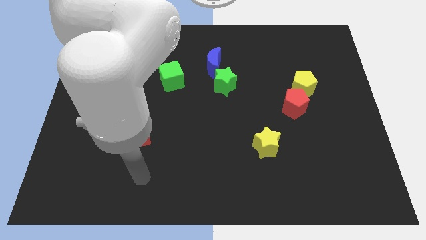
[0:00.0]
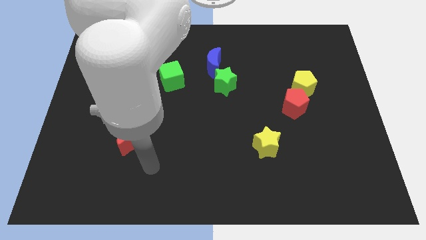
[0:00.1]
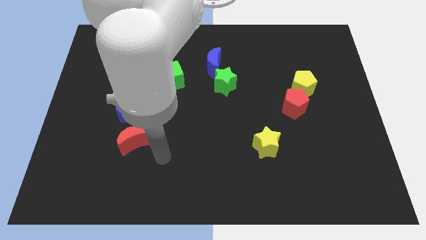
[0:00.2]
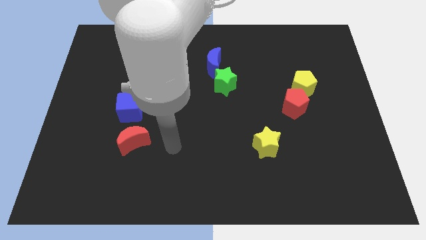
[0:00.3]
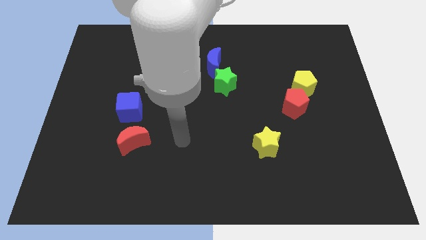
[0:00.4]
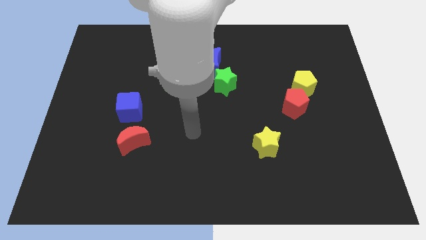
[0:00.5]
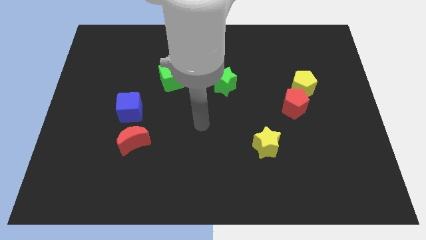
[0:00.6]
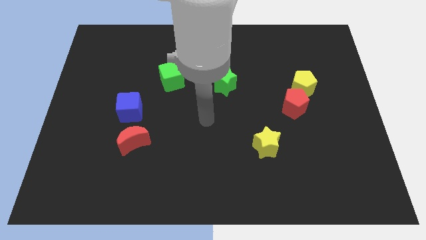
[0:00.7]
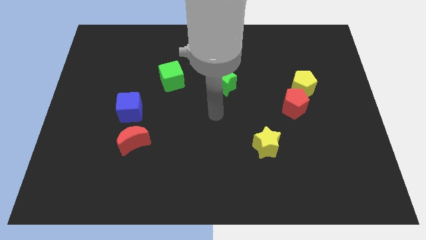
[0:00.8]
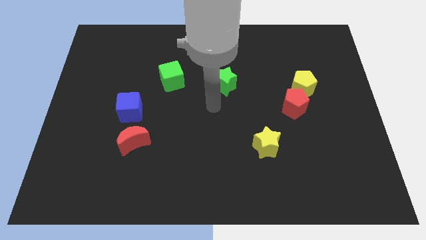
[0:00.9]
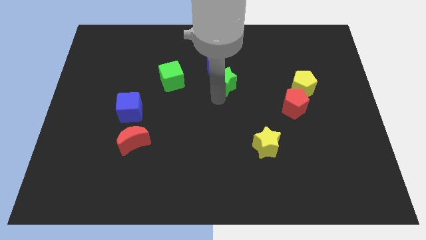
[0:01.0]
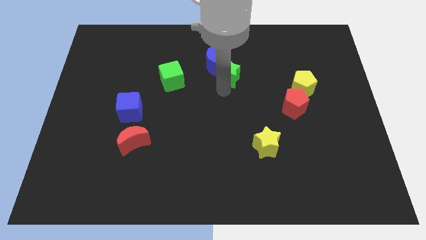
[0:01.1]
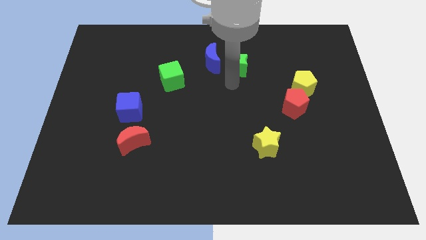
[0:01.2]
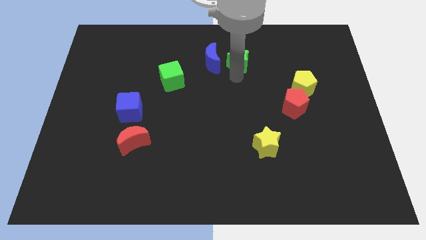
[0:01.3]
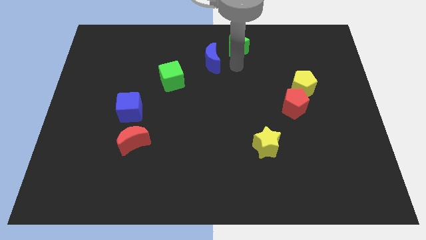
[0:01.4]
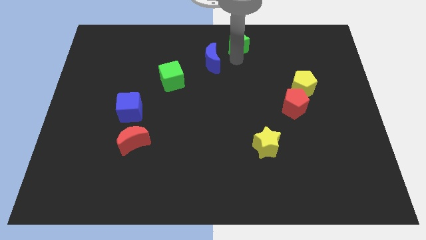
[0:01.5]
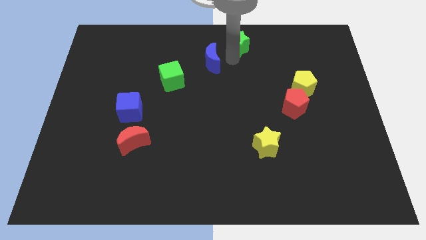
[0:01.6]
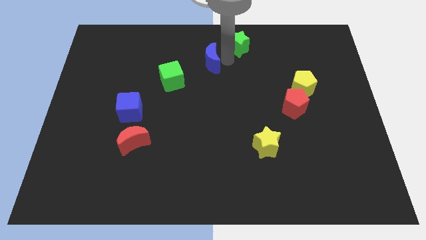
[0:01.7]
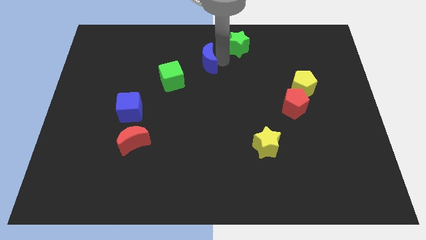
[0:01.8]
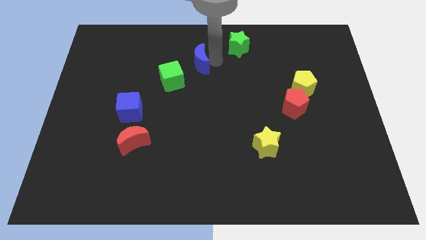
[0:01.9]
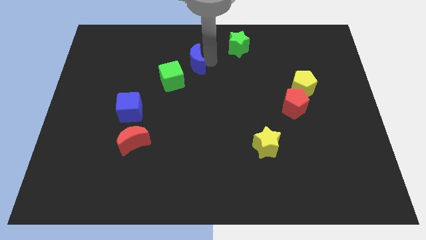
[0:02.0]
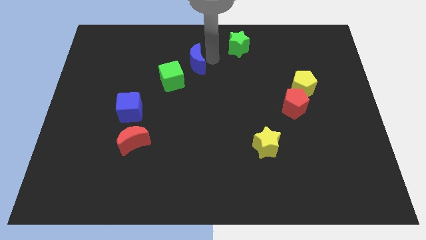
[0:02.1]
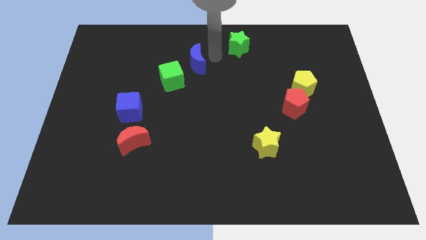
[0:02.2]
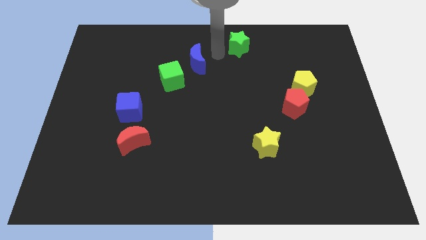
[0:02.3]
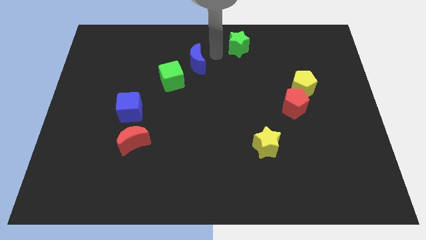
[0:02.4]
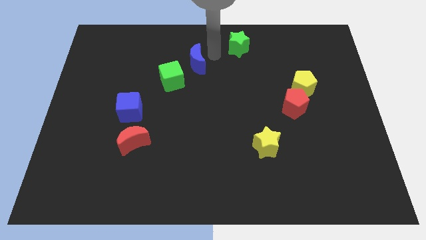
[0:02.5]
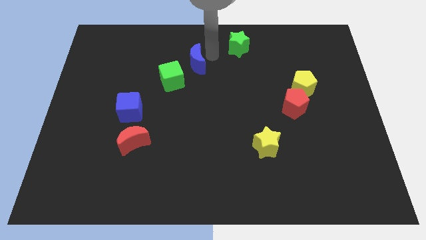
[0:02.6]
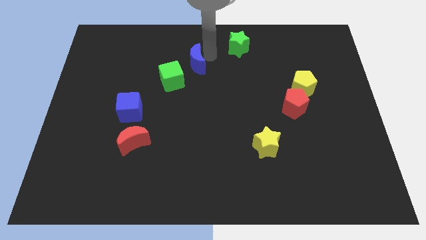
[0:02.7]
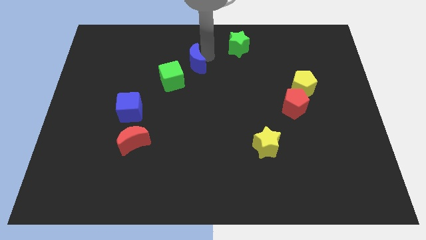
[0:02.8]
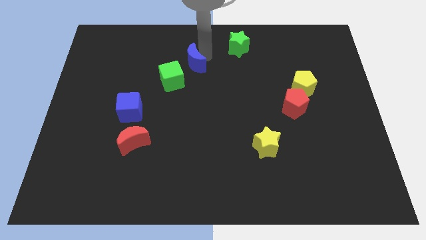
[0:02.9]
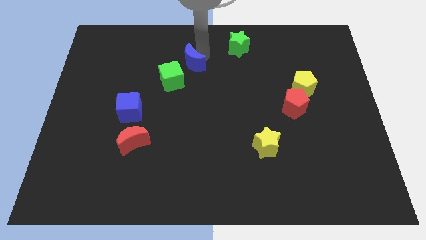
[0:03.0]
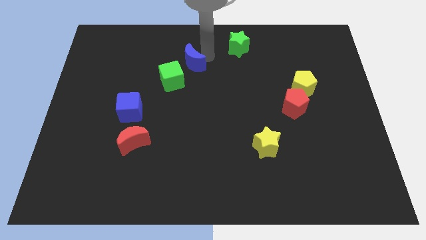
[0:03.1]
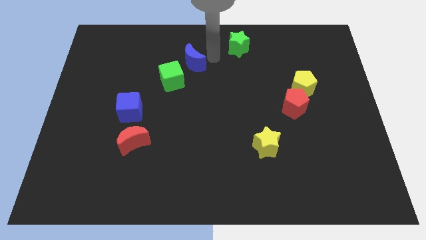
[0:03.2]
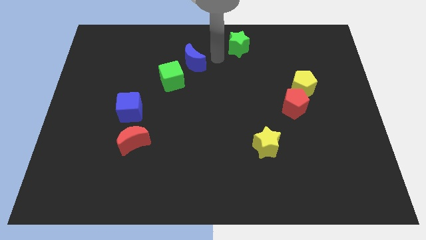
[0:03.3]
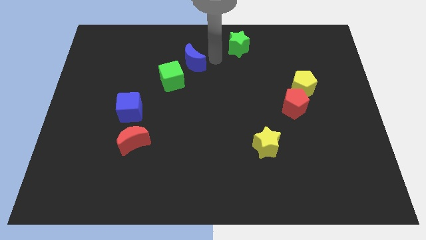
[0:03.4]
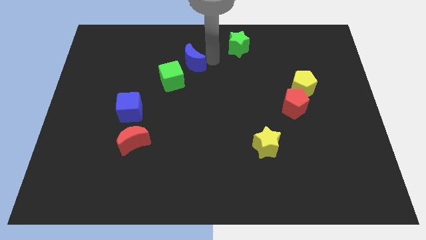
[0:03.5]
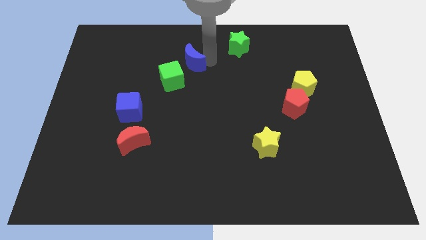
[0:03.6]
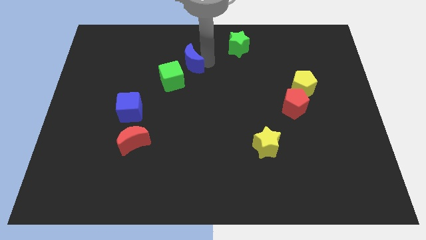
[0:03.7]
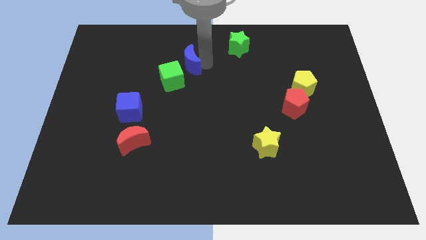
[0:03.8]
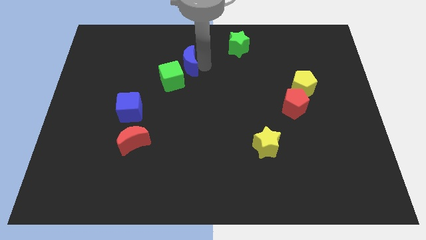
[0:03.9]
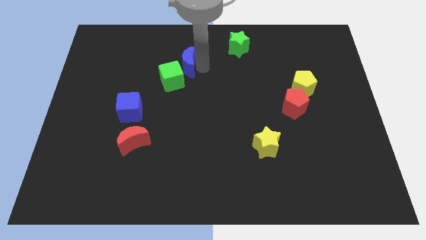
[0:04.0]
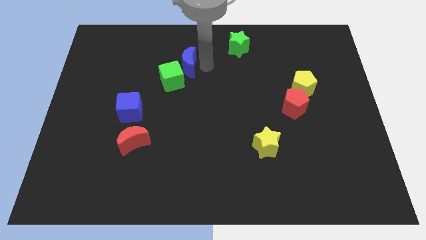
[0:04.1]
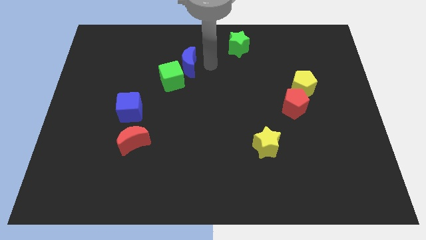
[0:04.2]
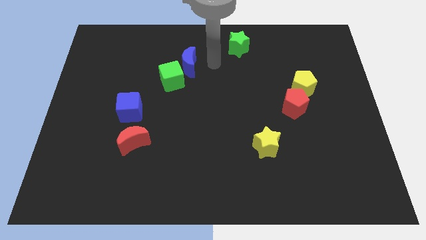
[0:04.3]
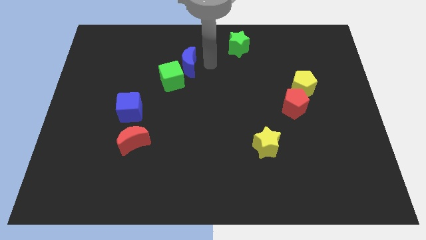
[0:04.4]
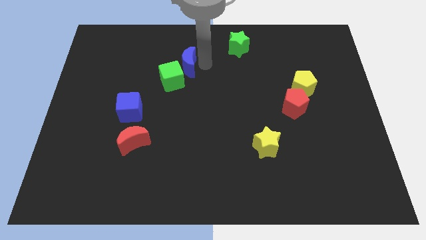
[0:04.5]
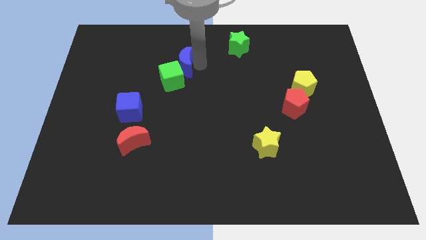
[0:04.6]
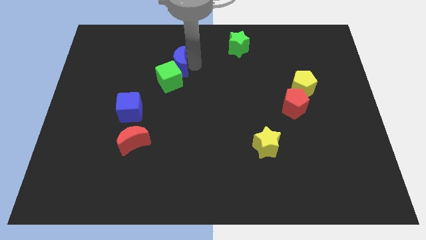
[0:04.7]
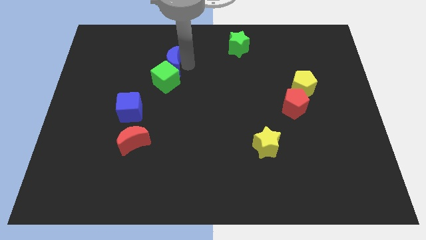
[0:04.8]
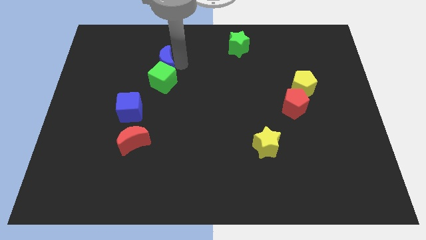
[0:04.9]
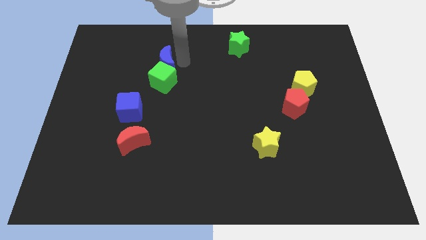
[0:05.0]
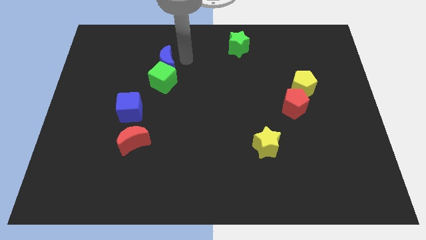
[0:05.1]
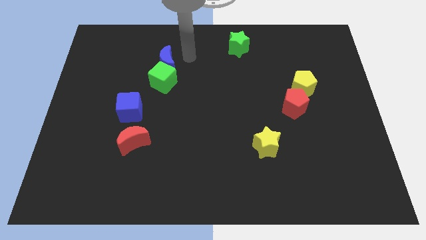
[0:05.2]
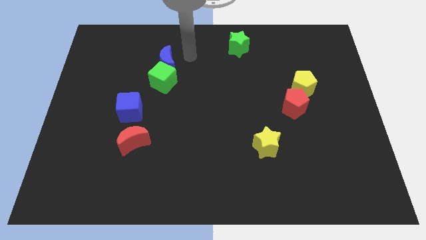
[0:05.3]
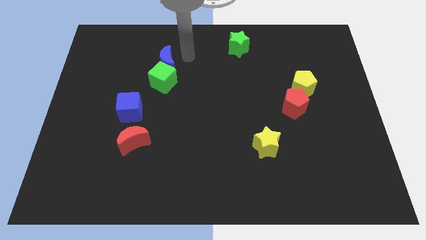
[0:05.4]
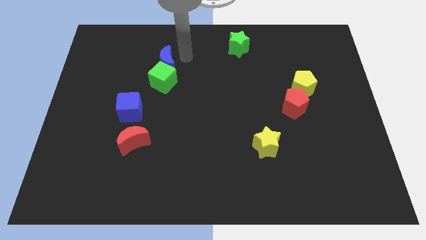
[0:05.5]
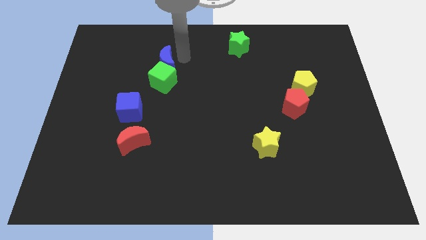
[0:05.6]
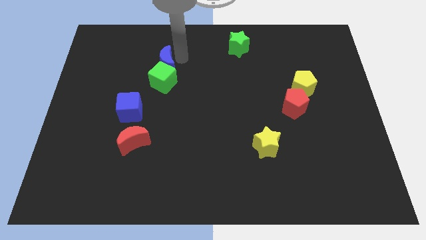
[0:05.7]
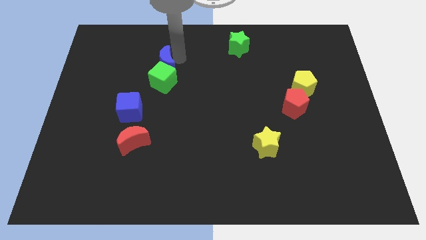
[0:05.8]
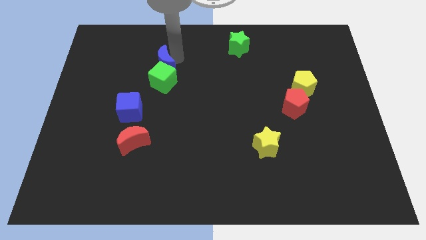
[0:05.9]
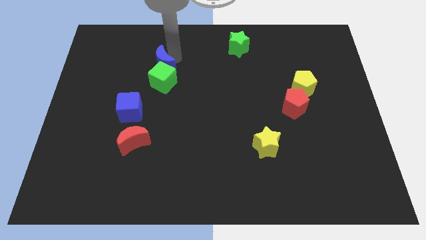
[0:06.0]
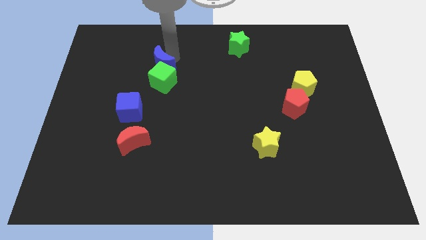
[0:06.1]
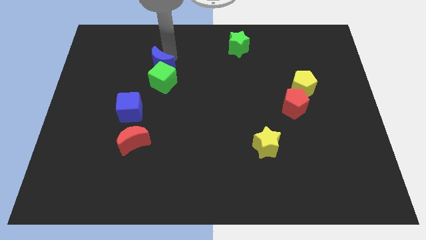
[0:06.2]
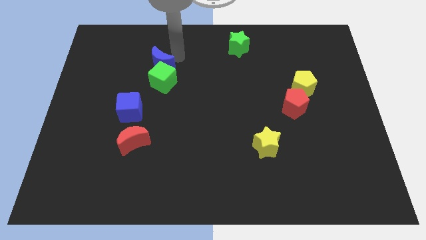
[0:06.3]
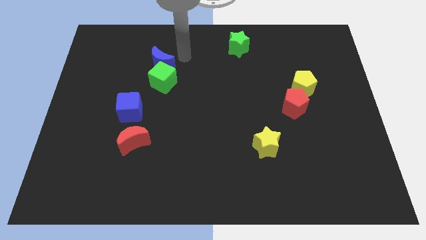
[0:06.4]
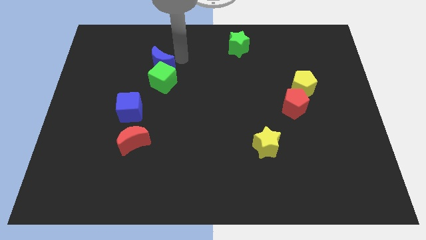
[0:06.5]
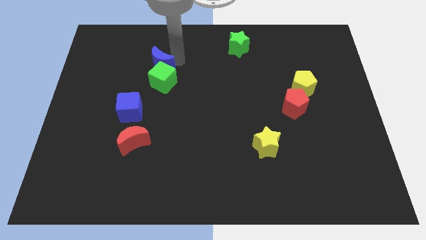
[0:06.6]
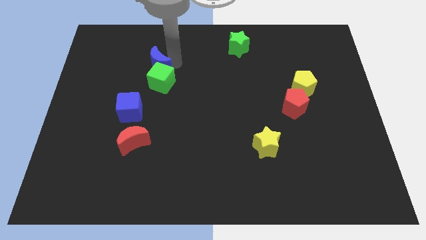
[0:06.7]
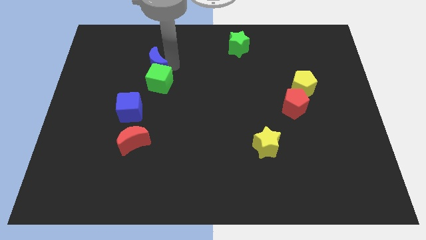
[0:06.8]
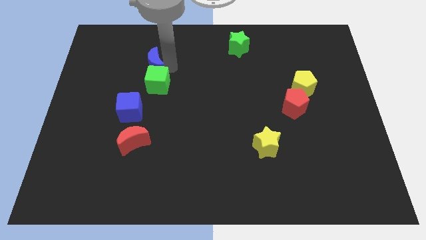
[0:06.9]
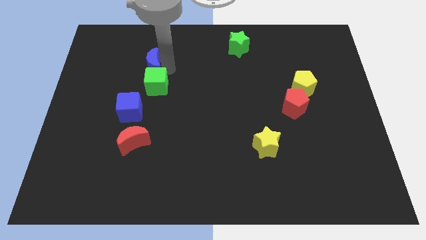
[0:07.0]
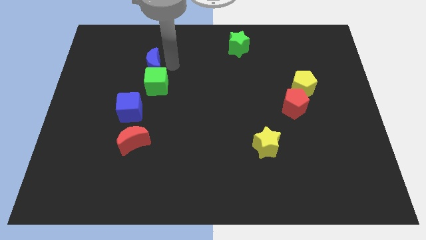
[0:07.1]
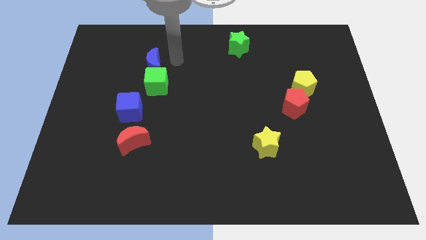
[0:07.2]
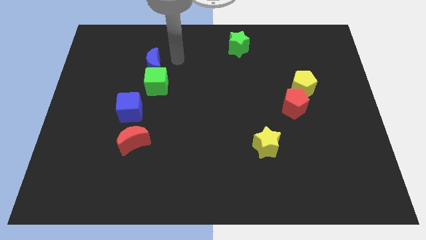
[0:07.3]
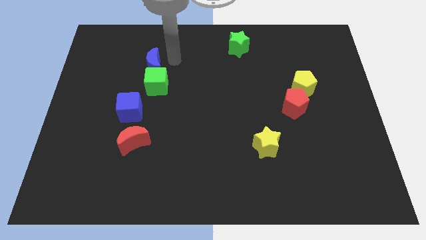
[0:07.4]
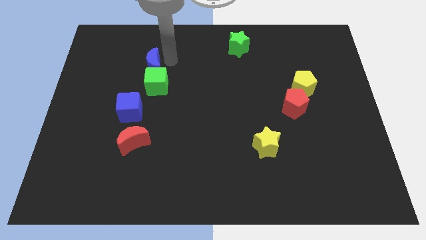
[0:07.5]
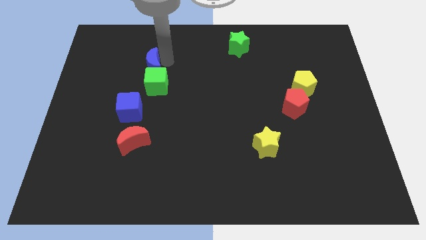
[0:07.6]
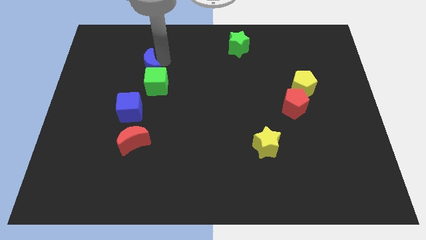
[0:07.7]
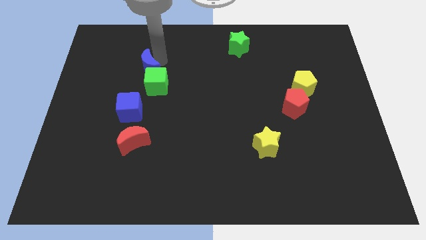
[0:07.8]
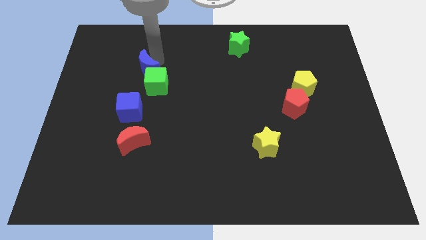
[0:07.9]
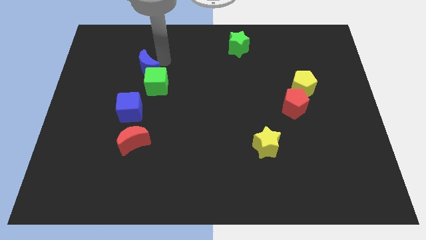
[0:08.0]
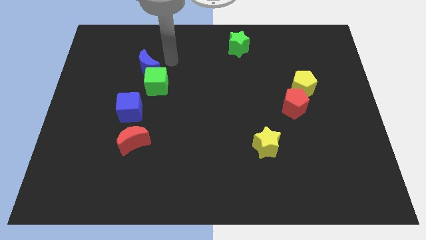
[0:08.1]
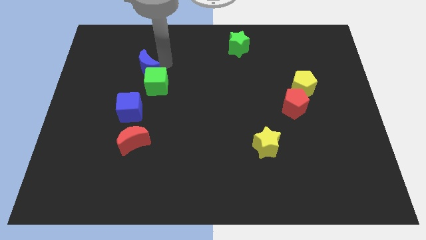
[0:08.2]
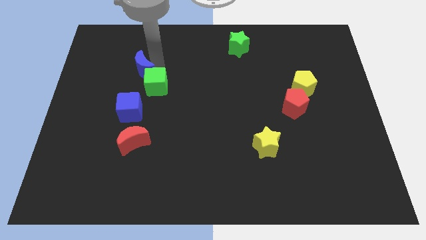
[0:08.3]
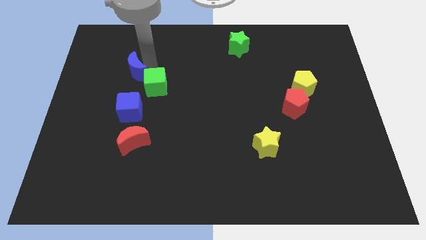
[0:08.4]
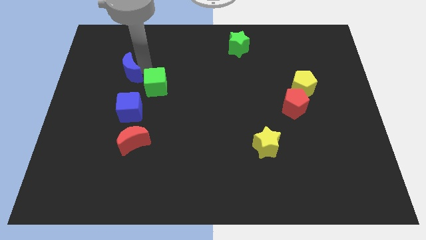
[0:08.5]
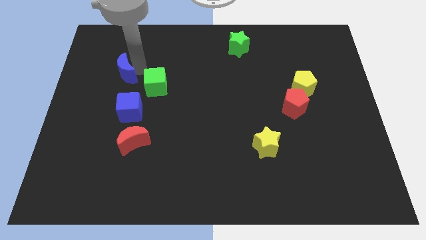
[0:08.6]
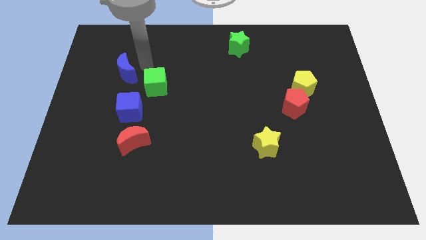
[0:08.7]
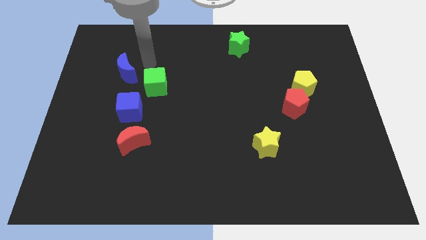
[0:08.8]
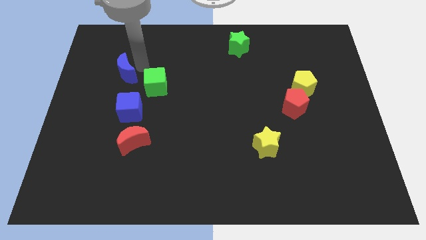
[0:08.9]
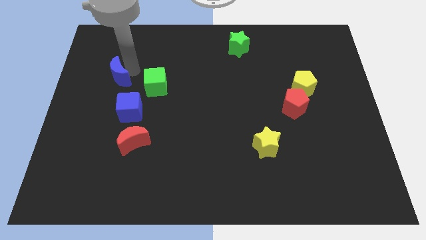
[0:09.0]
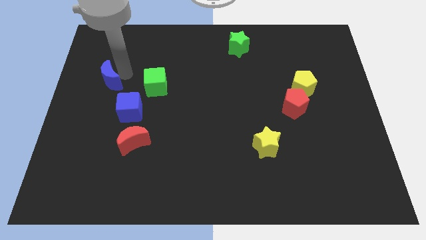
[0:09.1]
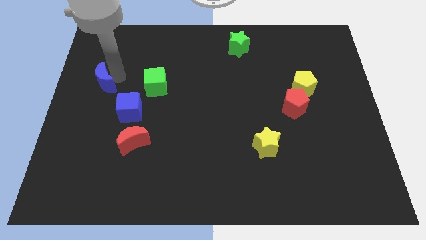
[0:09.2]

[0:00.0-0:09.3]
slide the blue moon to the center left
